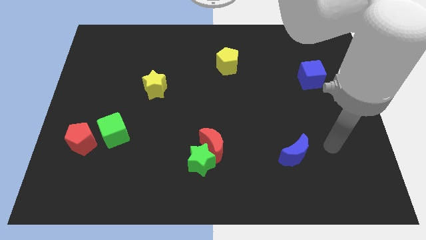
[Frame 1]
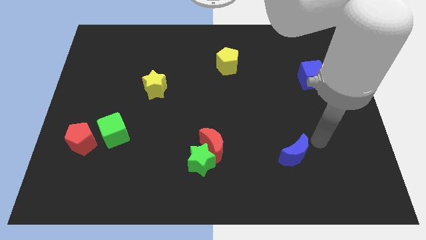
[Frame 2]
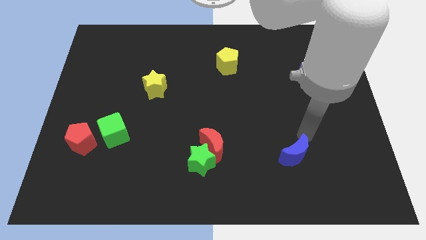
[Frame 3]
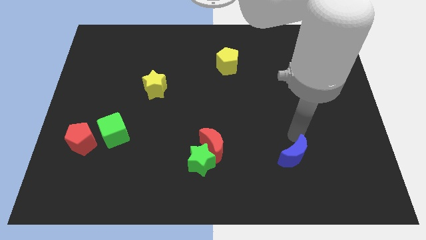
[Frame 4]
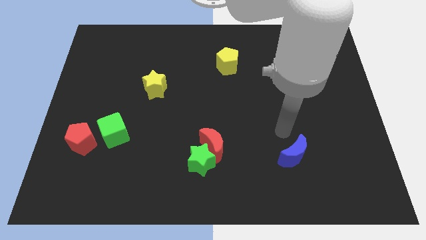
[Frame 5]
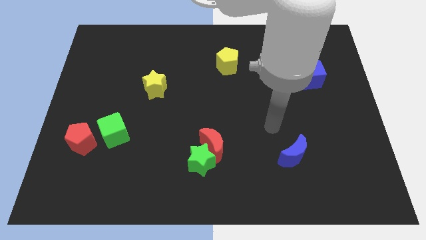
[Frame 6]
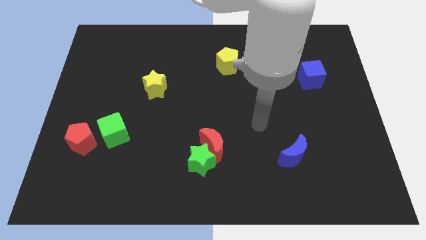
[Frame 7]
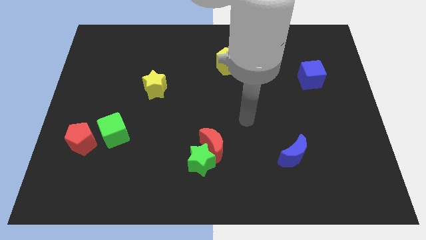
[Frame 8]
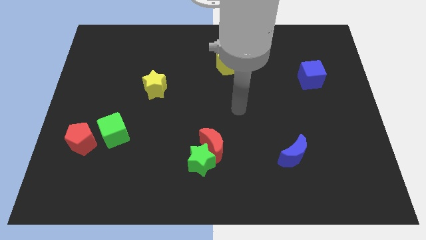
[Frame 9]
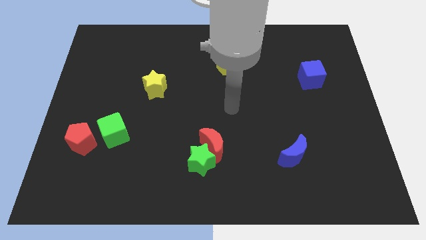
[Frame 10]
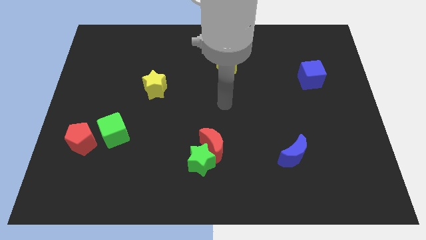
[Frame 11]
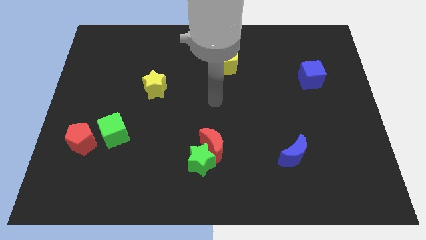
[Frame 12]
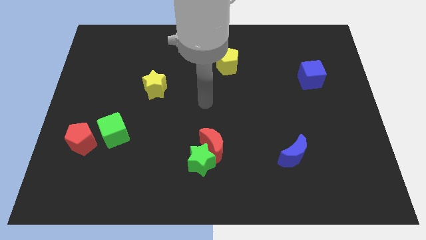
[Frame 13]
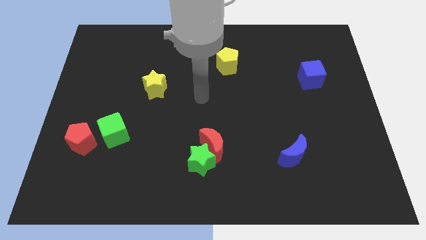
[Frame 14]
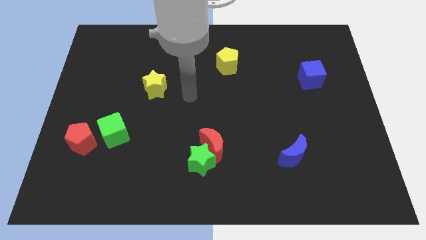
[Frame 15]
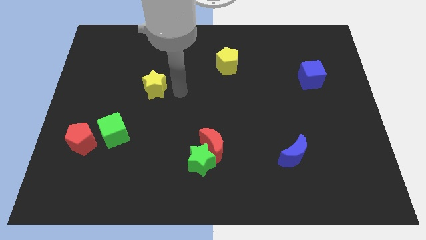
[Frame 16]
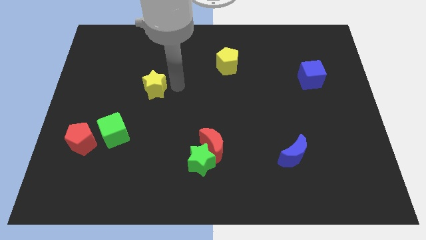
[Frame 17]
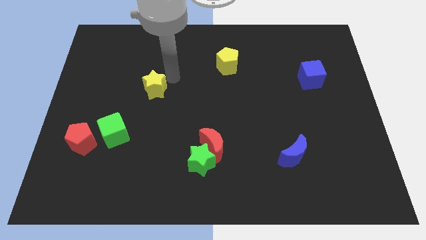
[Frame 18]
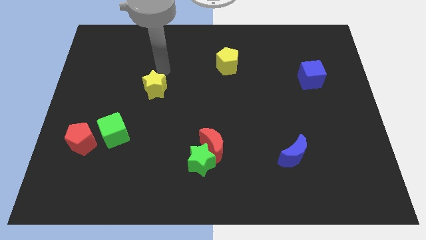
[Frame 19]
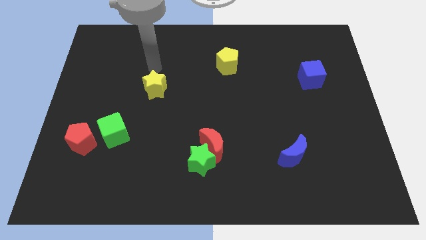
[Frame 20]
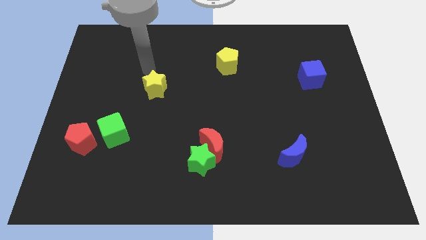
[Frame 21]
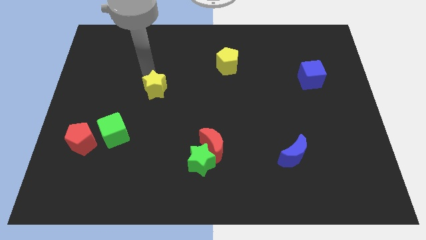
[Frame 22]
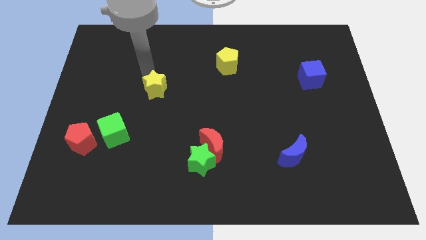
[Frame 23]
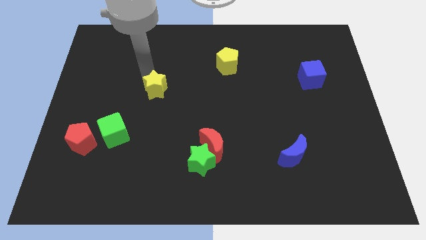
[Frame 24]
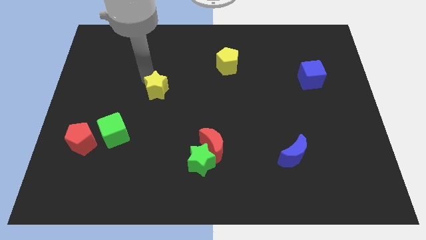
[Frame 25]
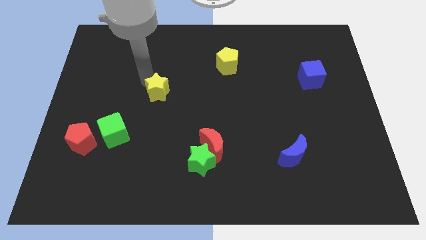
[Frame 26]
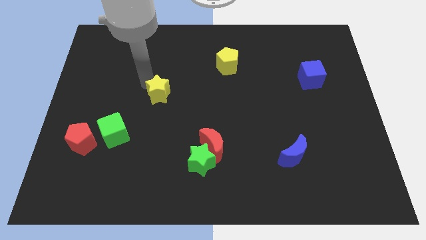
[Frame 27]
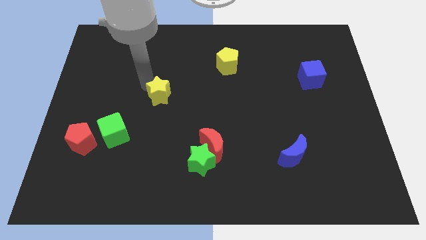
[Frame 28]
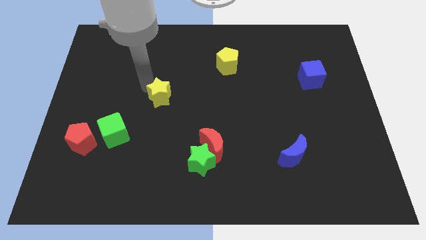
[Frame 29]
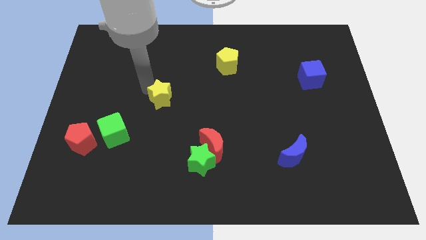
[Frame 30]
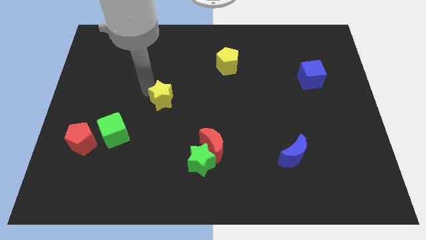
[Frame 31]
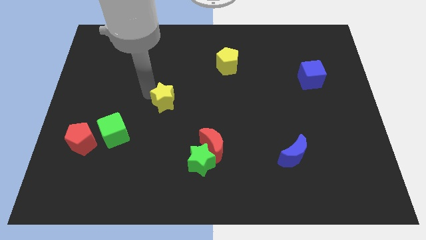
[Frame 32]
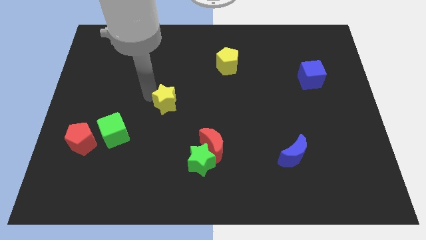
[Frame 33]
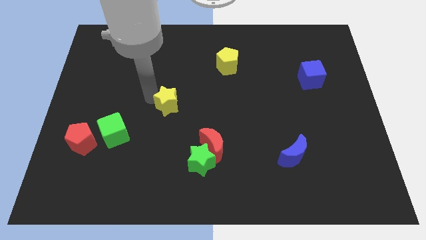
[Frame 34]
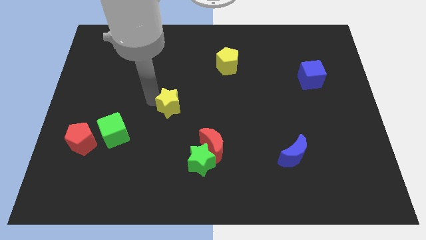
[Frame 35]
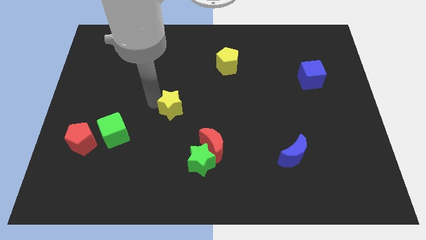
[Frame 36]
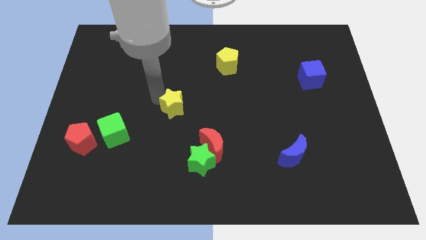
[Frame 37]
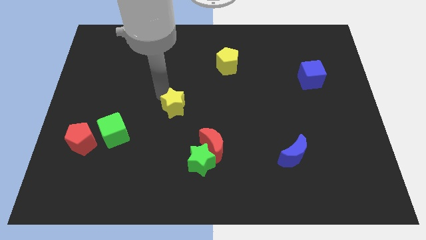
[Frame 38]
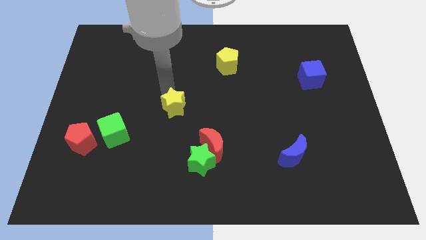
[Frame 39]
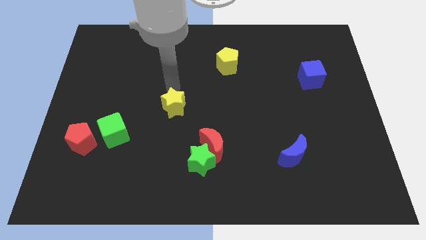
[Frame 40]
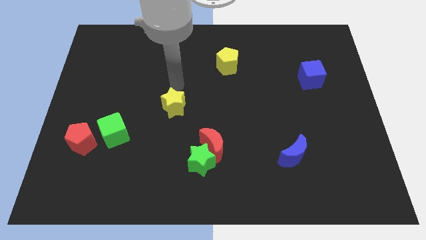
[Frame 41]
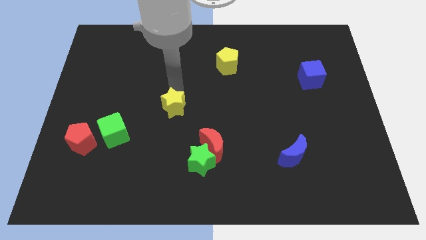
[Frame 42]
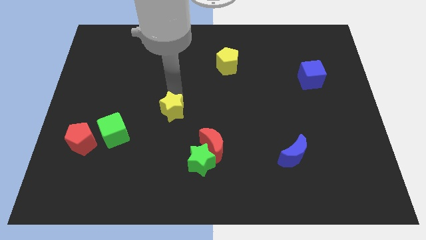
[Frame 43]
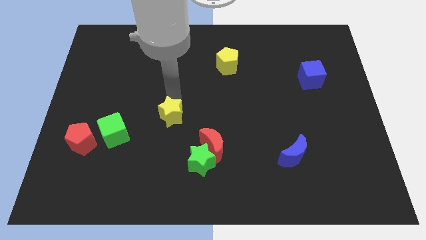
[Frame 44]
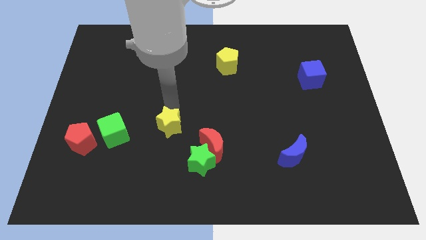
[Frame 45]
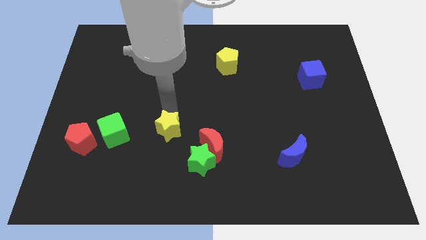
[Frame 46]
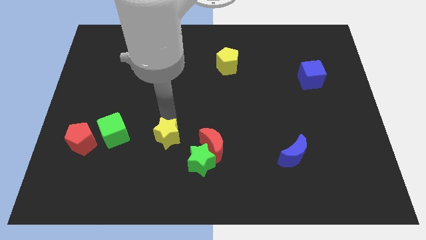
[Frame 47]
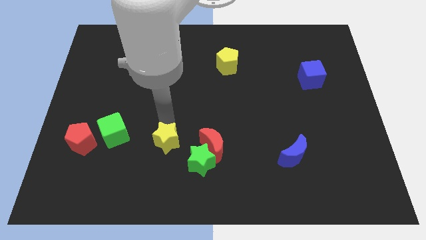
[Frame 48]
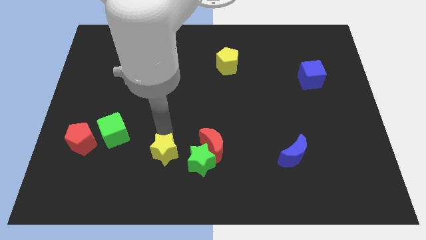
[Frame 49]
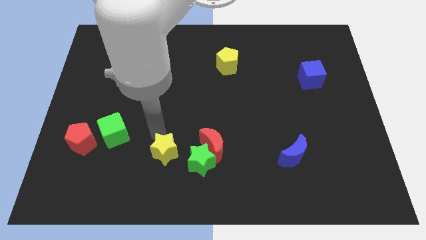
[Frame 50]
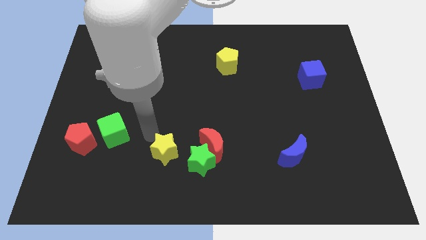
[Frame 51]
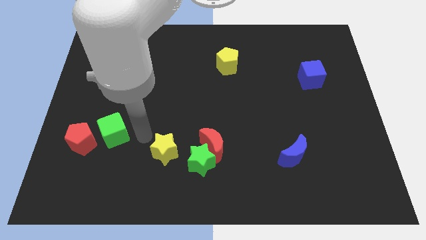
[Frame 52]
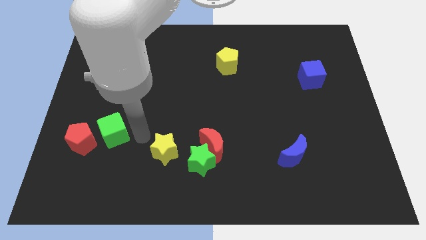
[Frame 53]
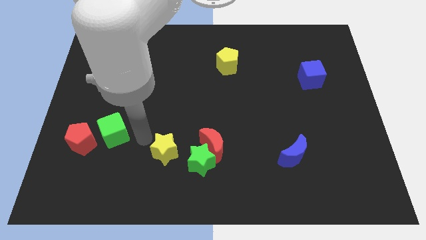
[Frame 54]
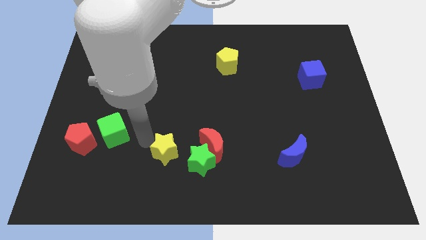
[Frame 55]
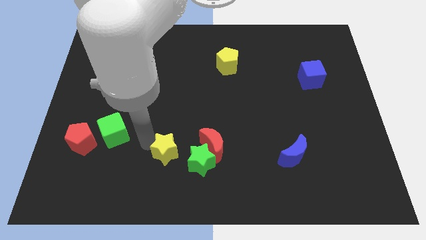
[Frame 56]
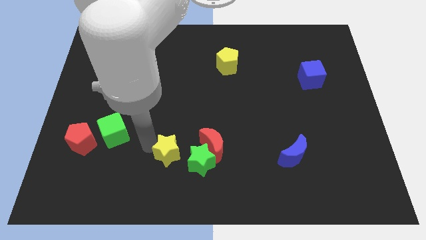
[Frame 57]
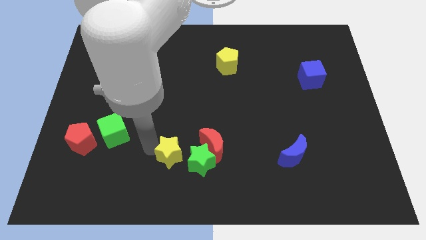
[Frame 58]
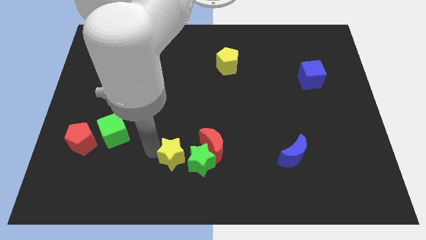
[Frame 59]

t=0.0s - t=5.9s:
put the yellow star to the bottom left side of the red moon

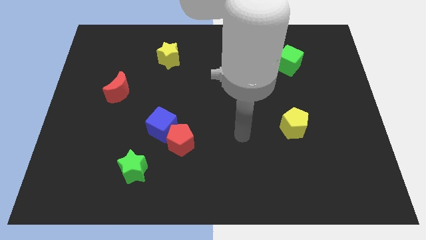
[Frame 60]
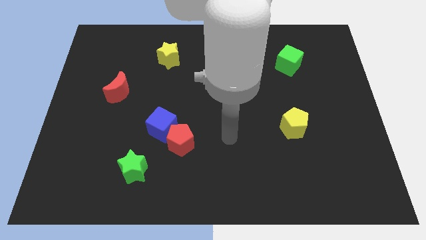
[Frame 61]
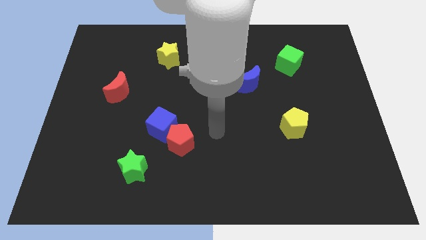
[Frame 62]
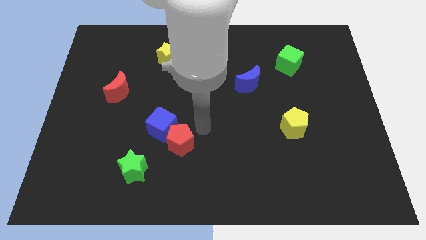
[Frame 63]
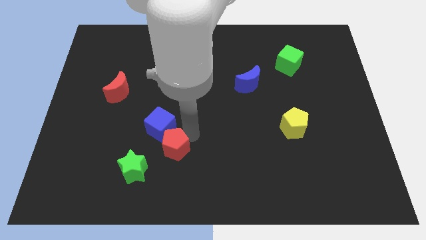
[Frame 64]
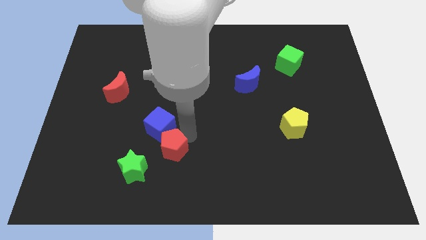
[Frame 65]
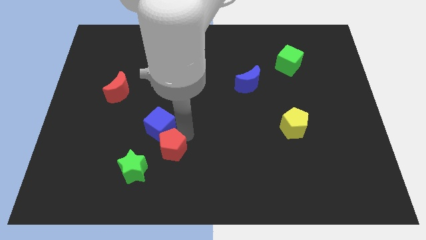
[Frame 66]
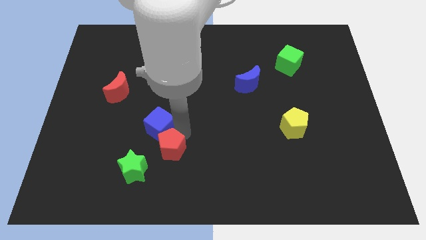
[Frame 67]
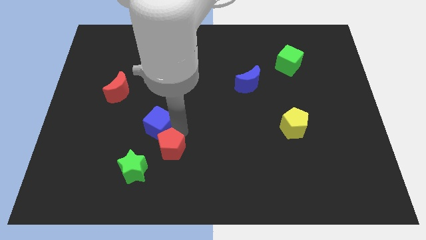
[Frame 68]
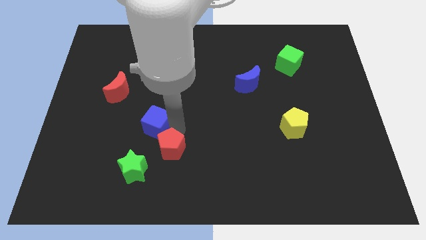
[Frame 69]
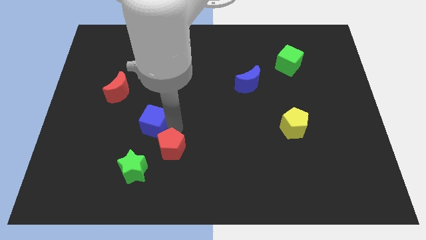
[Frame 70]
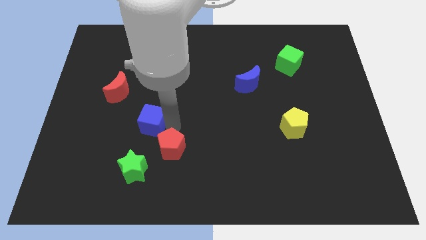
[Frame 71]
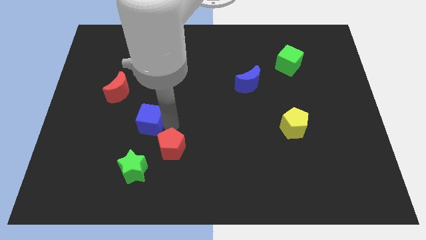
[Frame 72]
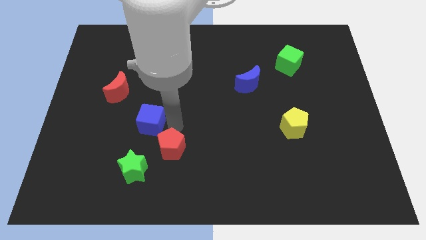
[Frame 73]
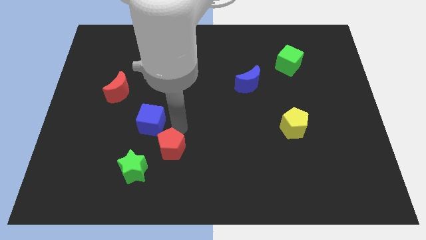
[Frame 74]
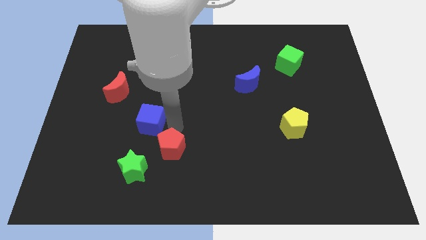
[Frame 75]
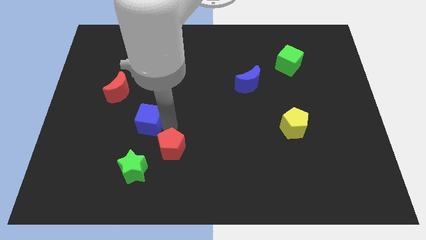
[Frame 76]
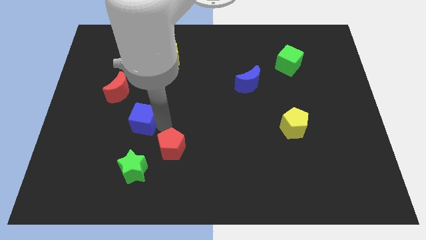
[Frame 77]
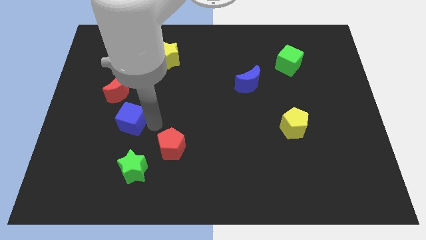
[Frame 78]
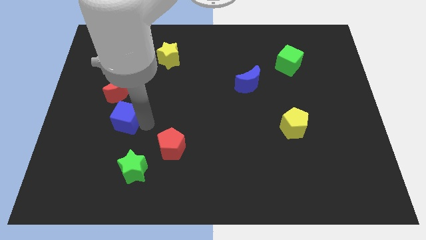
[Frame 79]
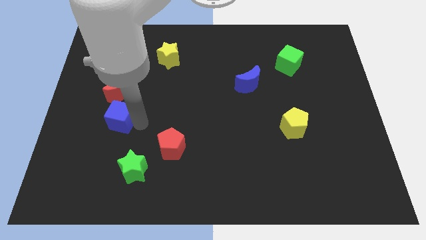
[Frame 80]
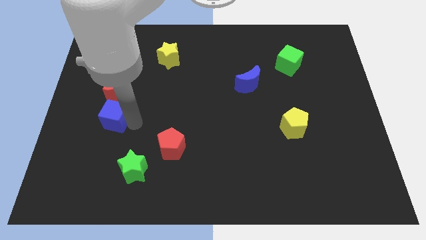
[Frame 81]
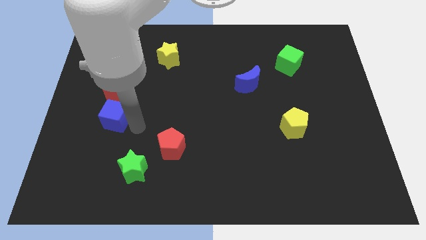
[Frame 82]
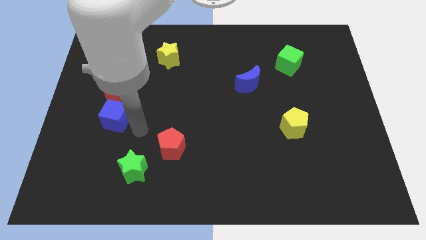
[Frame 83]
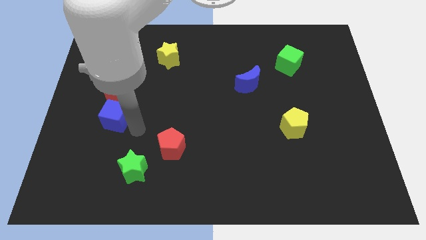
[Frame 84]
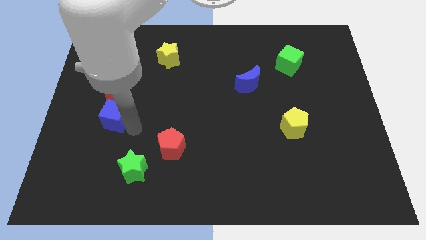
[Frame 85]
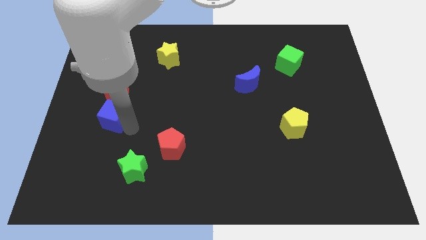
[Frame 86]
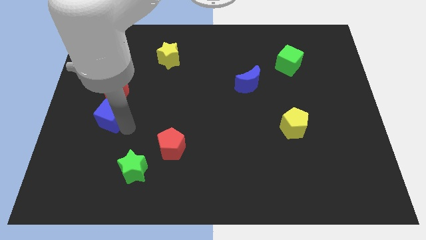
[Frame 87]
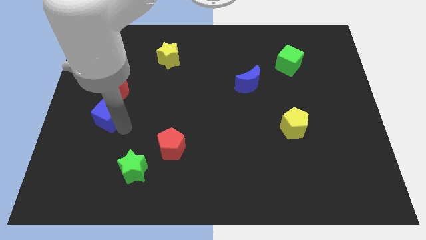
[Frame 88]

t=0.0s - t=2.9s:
put the blue cube diagonally down and to the left of the red moon
